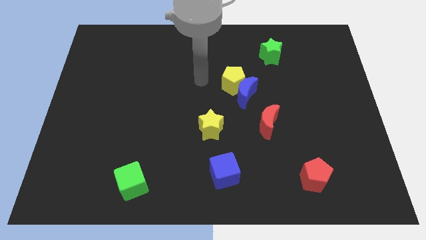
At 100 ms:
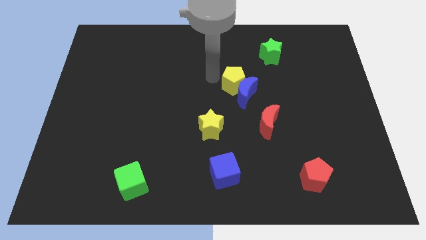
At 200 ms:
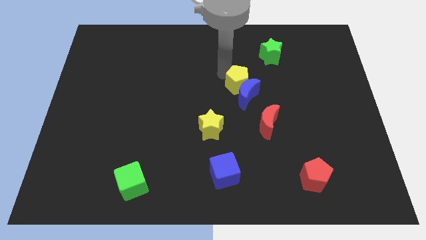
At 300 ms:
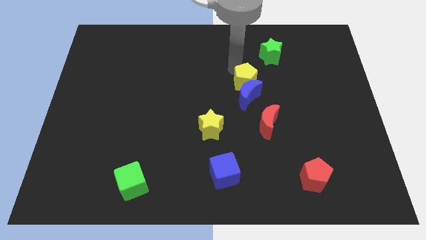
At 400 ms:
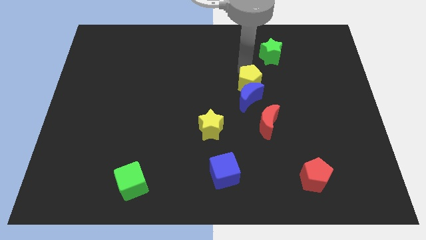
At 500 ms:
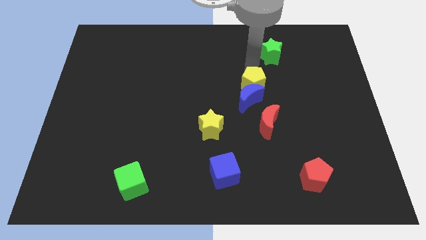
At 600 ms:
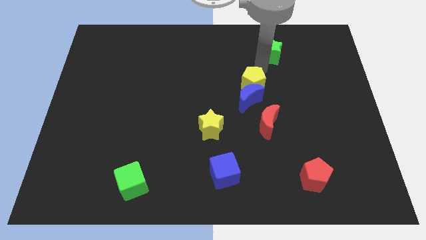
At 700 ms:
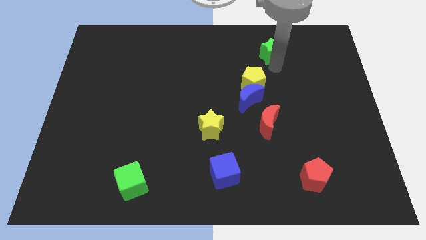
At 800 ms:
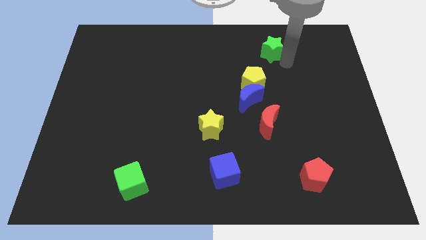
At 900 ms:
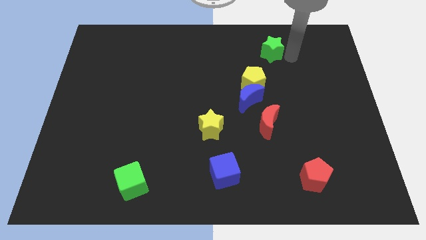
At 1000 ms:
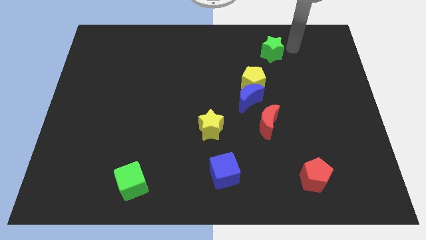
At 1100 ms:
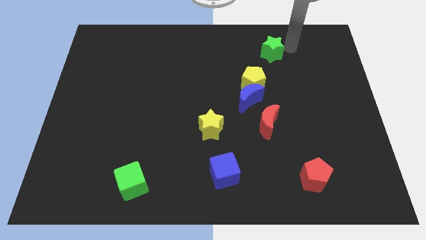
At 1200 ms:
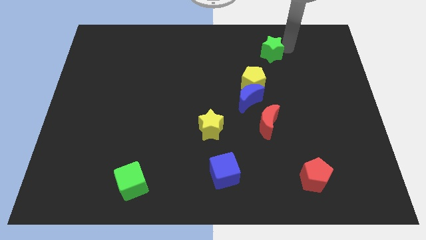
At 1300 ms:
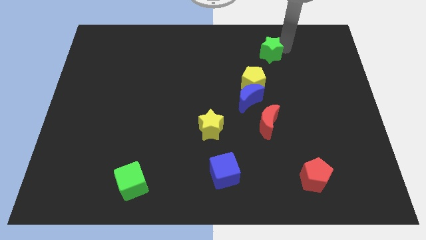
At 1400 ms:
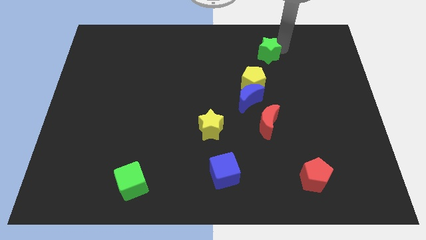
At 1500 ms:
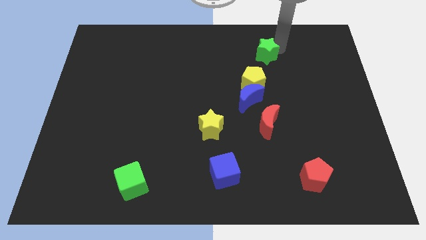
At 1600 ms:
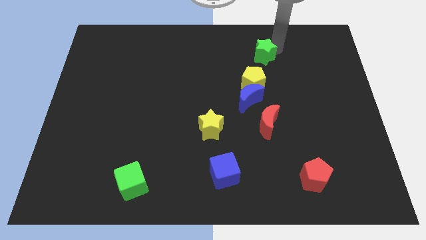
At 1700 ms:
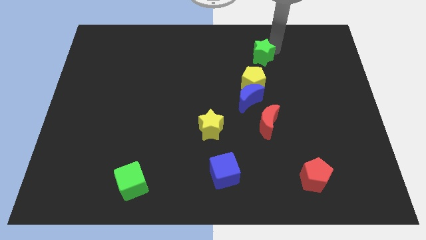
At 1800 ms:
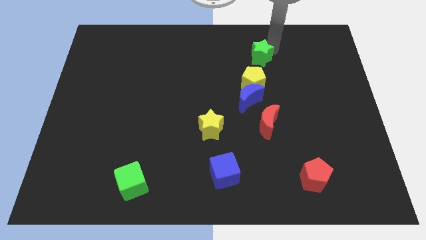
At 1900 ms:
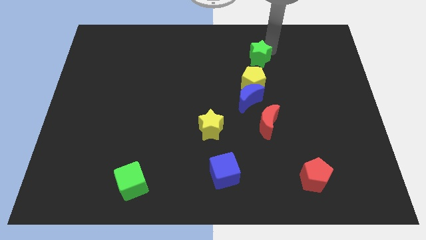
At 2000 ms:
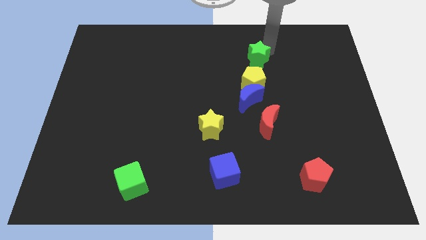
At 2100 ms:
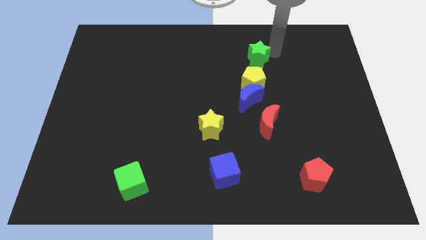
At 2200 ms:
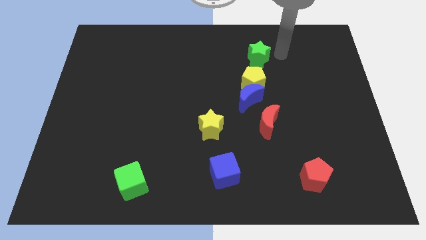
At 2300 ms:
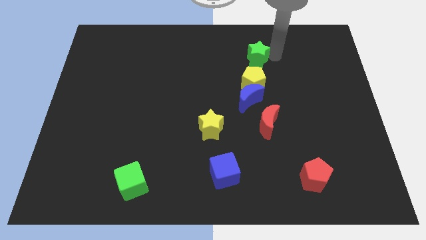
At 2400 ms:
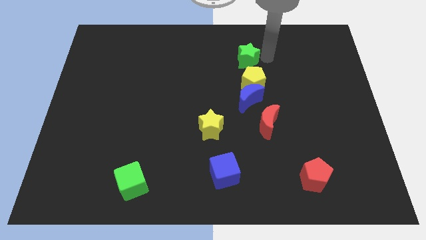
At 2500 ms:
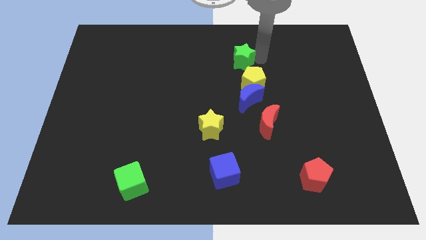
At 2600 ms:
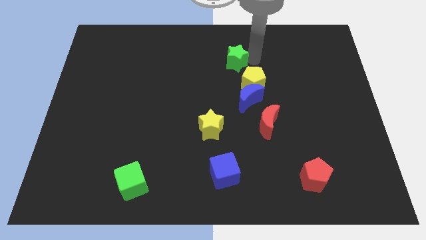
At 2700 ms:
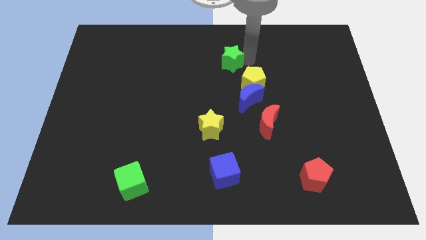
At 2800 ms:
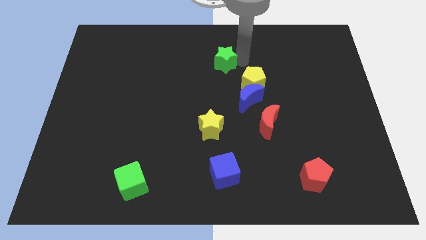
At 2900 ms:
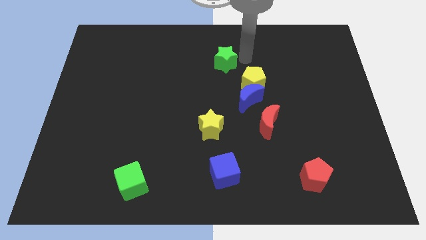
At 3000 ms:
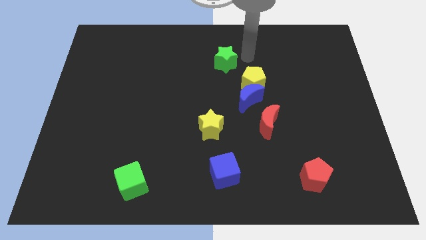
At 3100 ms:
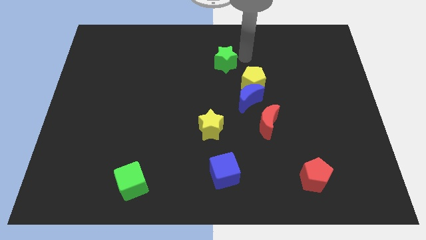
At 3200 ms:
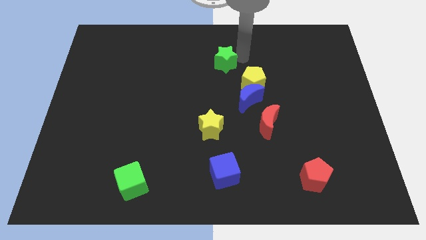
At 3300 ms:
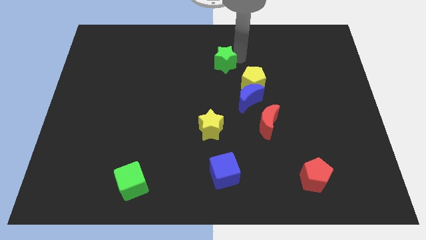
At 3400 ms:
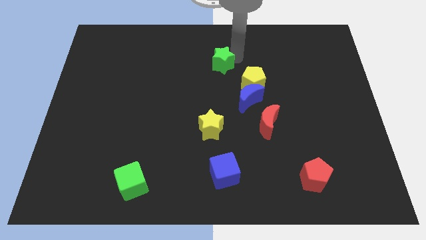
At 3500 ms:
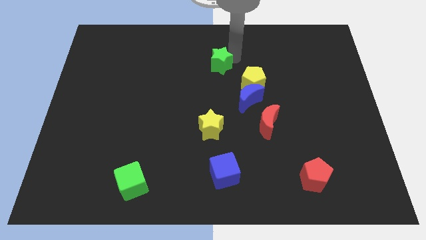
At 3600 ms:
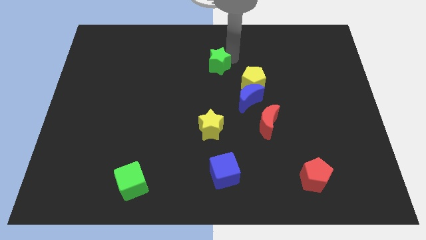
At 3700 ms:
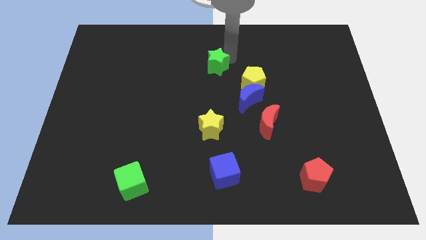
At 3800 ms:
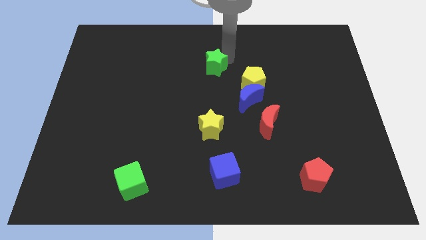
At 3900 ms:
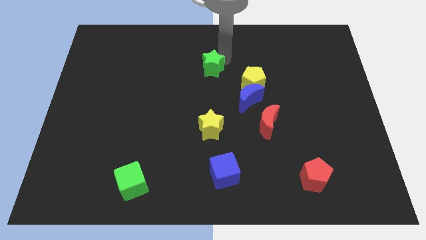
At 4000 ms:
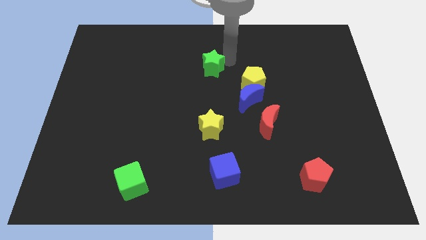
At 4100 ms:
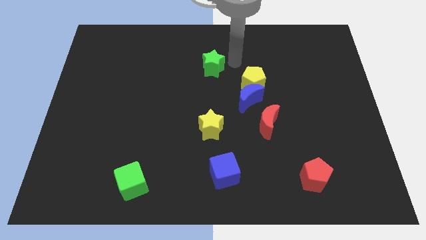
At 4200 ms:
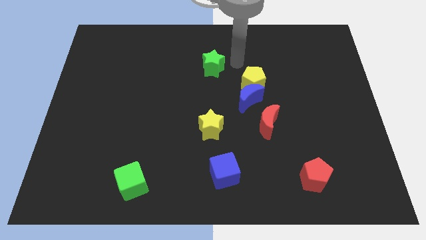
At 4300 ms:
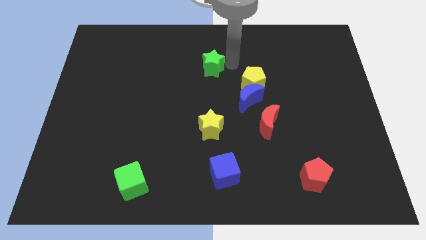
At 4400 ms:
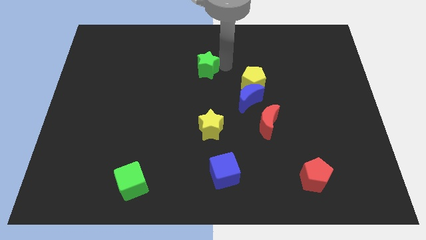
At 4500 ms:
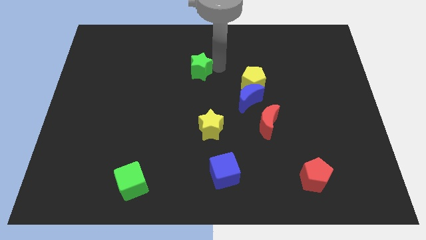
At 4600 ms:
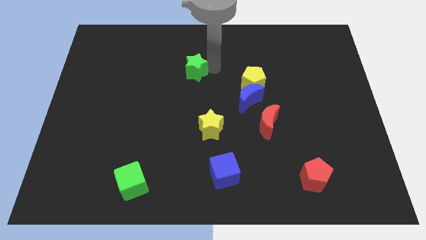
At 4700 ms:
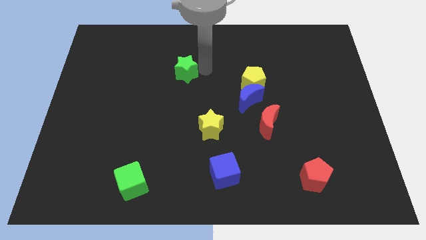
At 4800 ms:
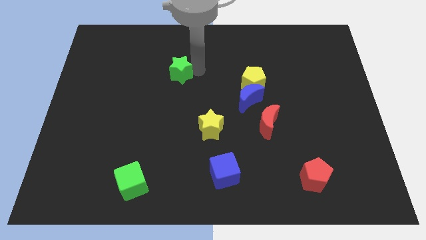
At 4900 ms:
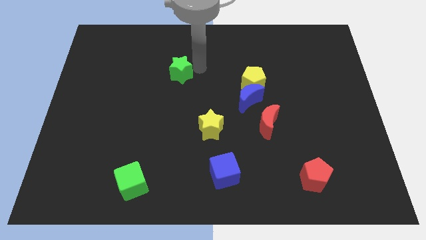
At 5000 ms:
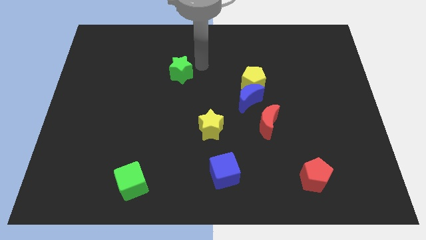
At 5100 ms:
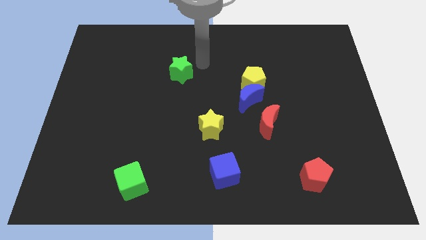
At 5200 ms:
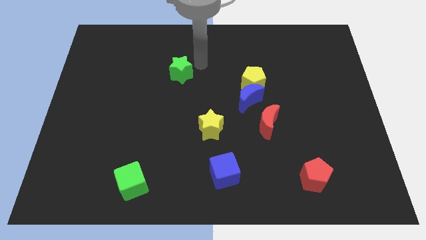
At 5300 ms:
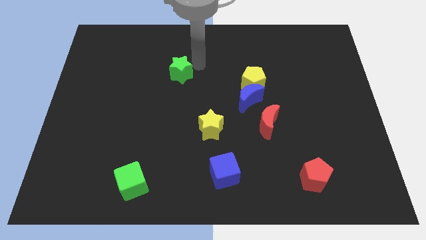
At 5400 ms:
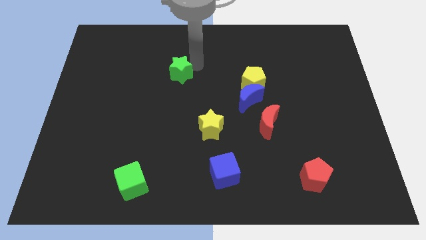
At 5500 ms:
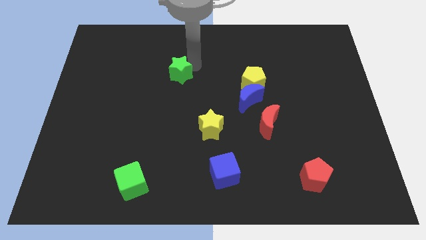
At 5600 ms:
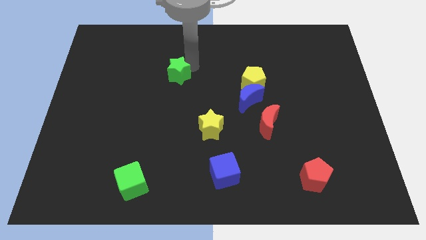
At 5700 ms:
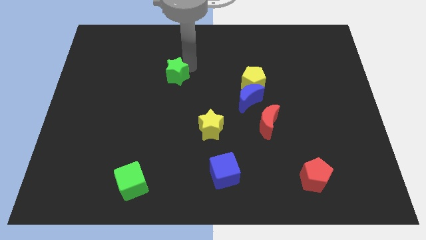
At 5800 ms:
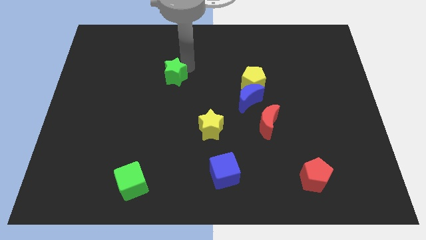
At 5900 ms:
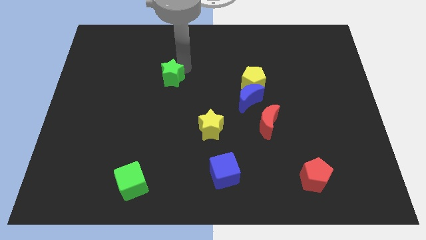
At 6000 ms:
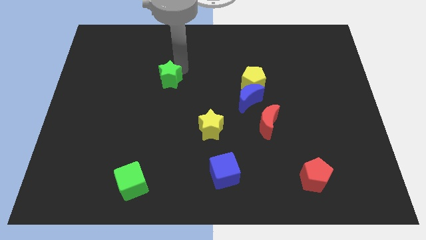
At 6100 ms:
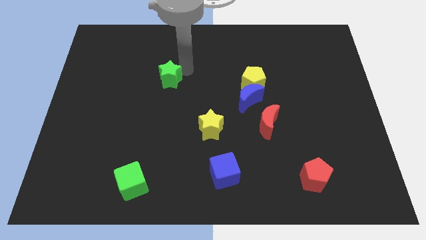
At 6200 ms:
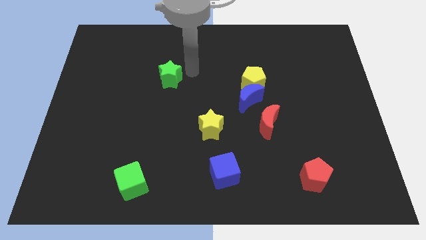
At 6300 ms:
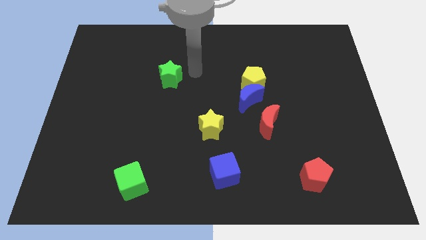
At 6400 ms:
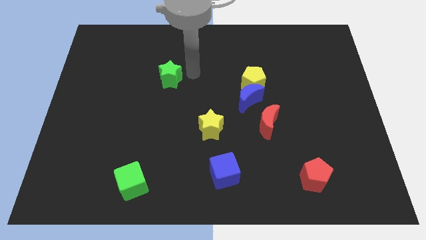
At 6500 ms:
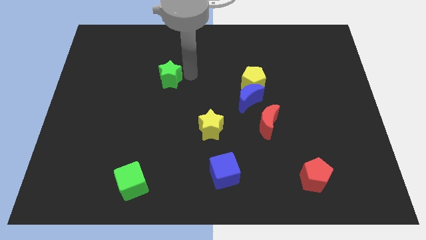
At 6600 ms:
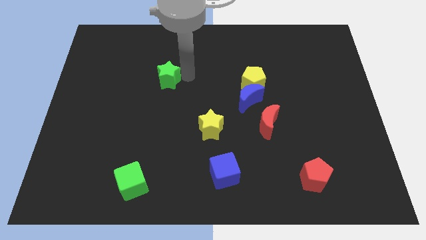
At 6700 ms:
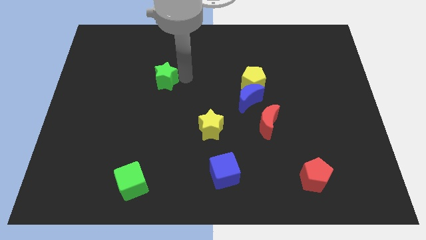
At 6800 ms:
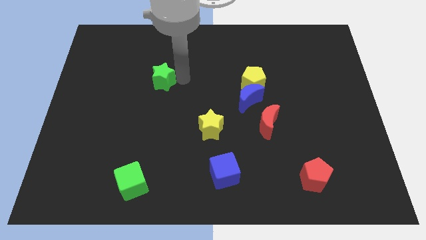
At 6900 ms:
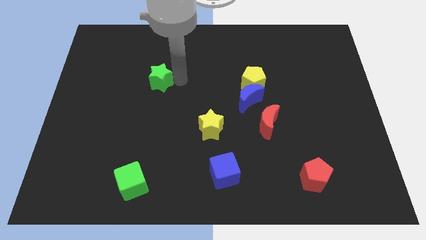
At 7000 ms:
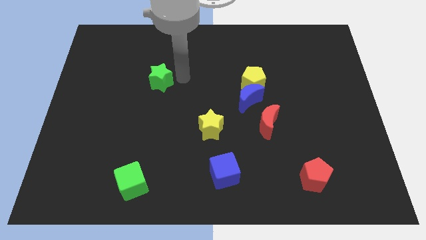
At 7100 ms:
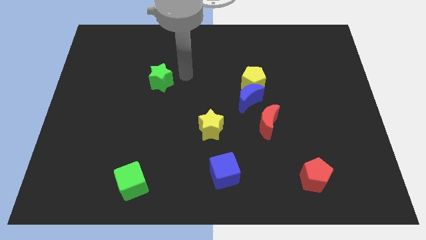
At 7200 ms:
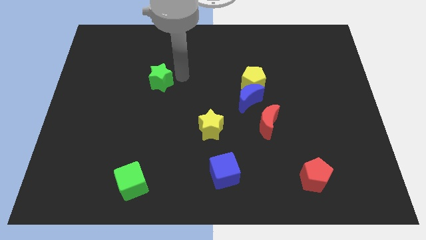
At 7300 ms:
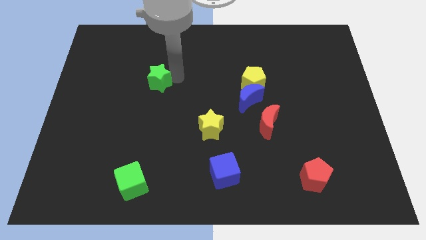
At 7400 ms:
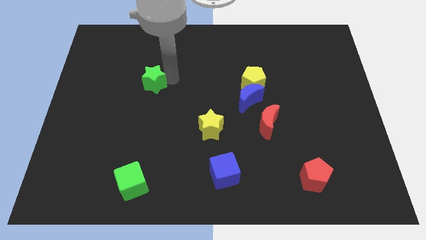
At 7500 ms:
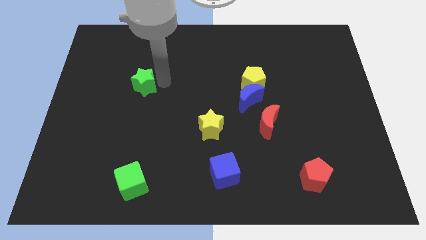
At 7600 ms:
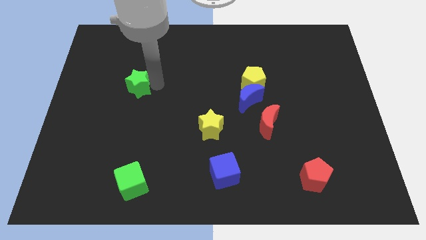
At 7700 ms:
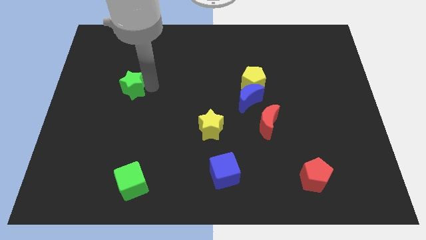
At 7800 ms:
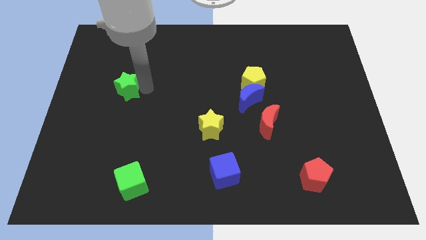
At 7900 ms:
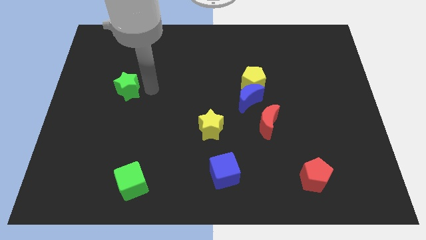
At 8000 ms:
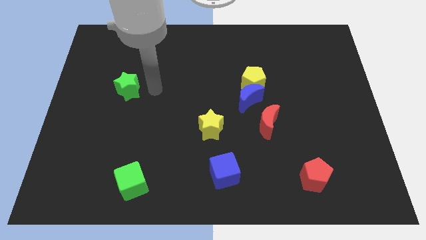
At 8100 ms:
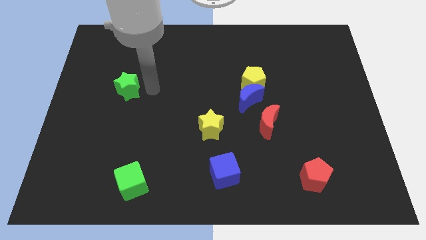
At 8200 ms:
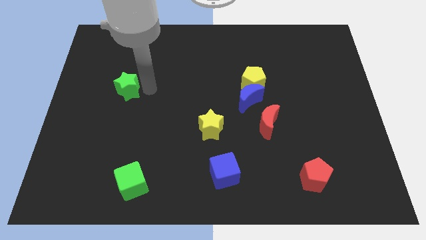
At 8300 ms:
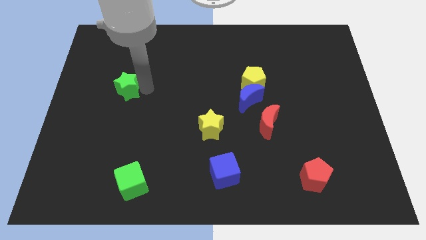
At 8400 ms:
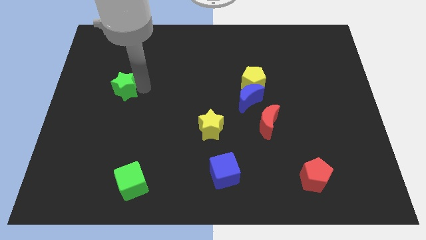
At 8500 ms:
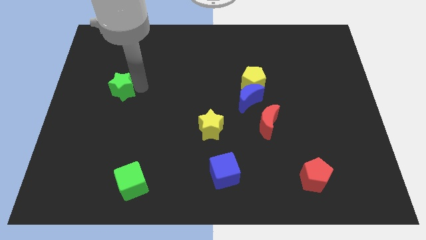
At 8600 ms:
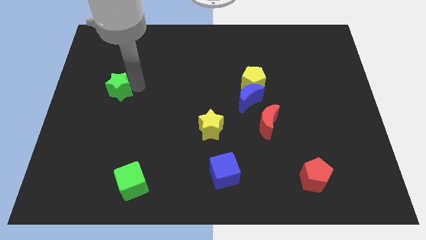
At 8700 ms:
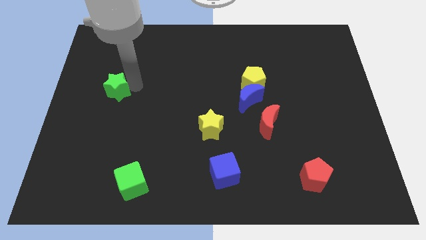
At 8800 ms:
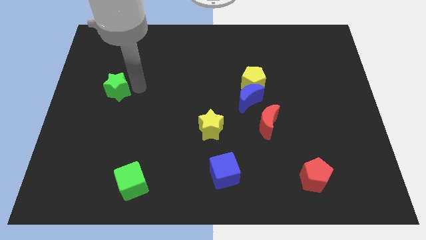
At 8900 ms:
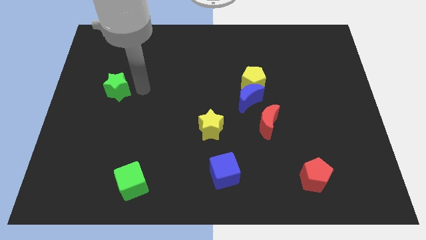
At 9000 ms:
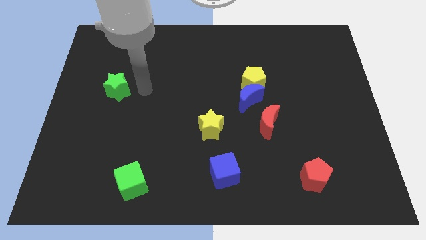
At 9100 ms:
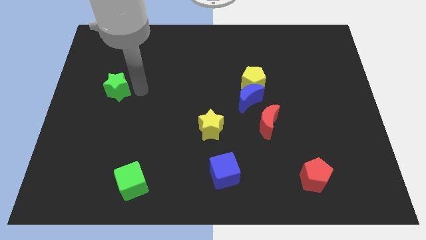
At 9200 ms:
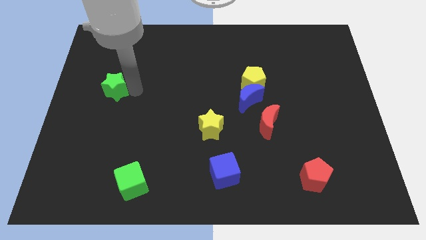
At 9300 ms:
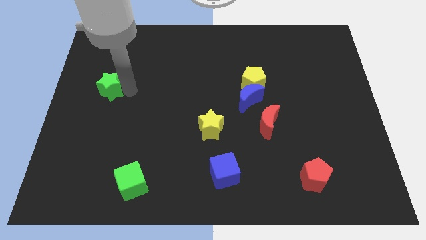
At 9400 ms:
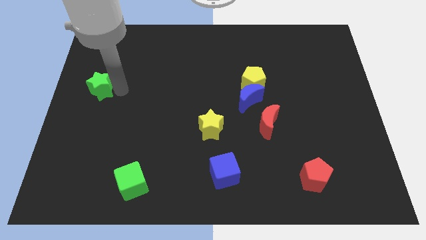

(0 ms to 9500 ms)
slide the green star to the center left
